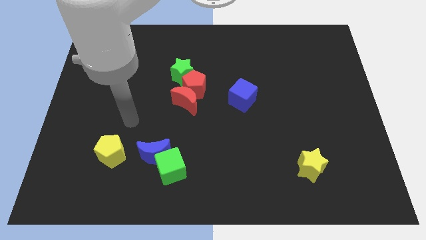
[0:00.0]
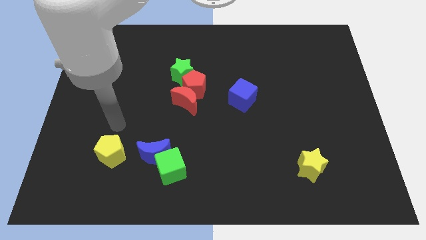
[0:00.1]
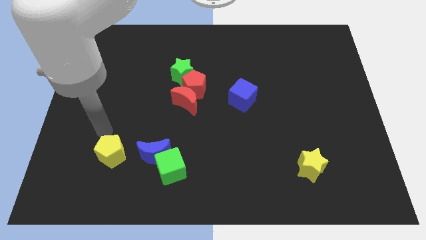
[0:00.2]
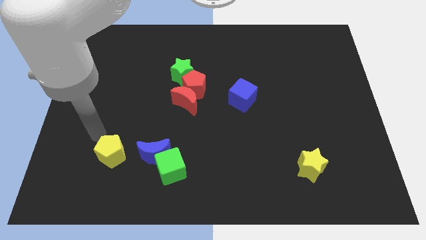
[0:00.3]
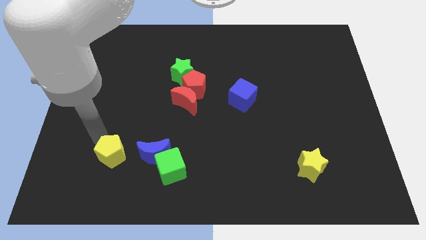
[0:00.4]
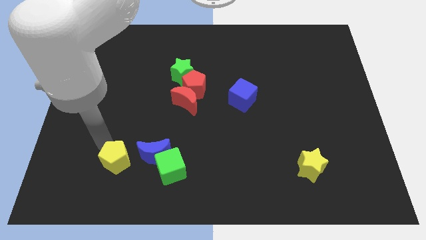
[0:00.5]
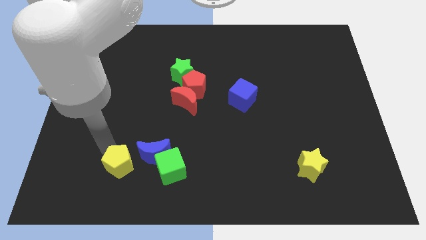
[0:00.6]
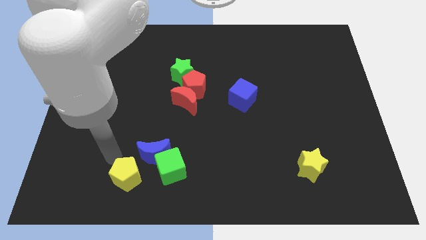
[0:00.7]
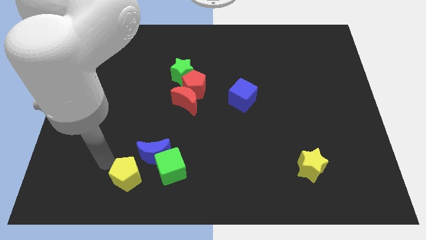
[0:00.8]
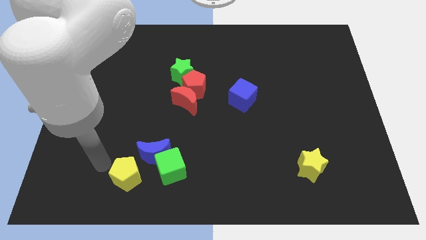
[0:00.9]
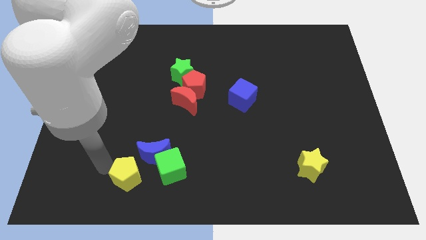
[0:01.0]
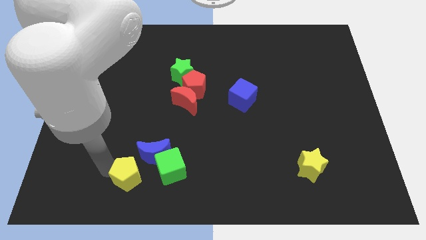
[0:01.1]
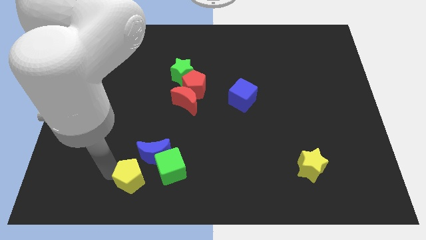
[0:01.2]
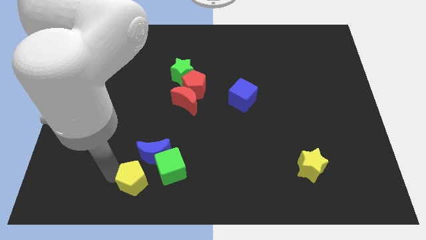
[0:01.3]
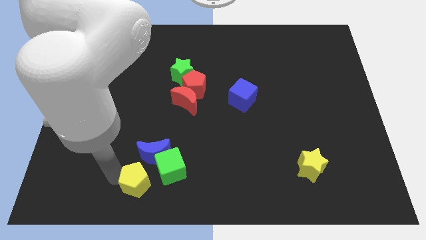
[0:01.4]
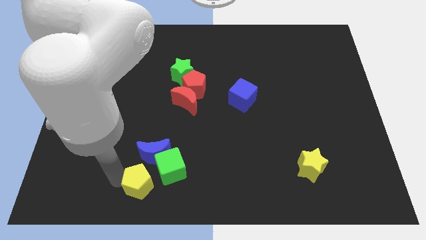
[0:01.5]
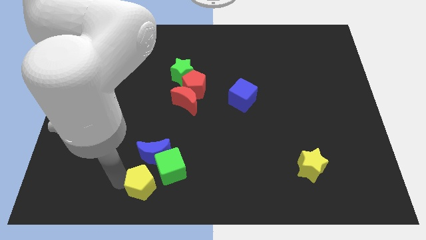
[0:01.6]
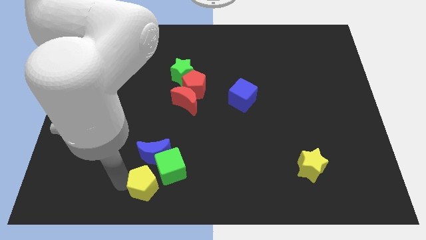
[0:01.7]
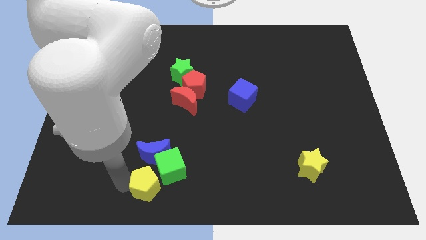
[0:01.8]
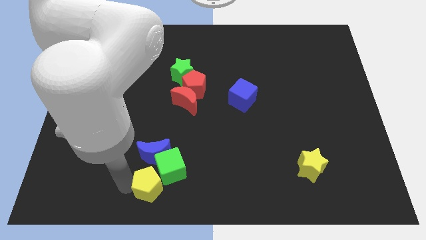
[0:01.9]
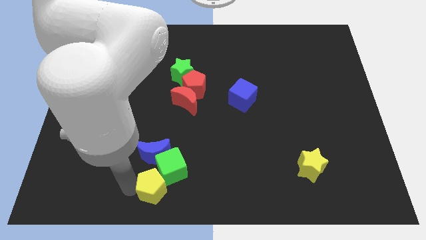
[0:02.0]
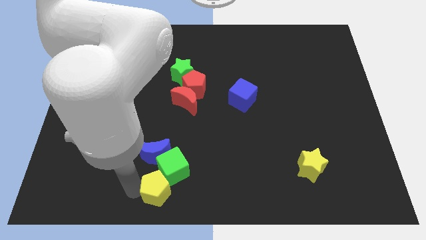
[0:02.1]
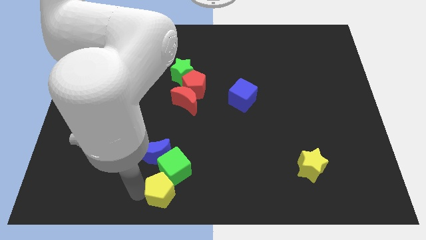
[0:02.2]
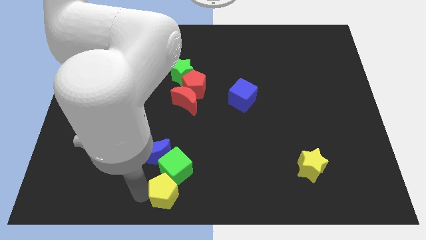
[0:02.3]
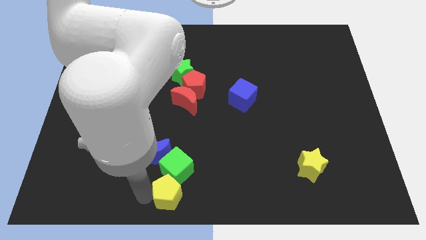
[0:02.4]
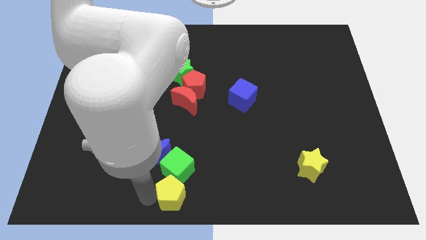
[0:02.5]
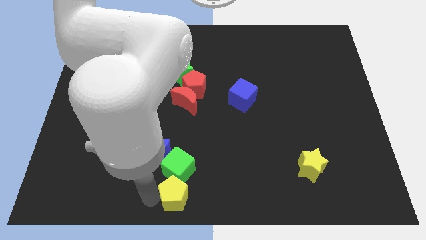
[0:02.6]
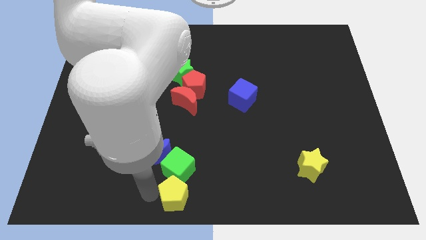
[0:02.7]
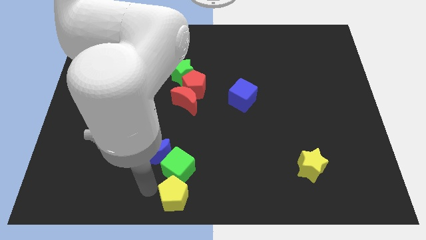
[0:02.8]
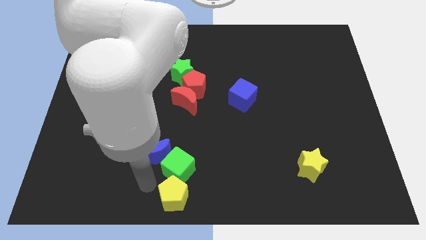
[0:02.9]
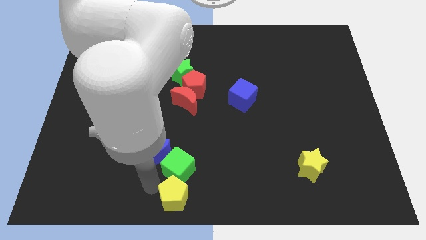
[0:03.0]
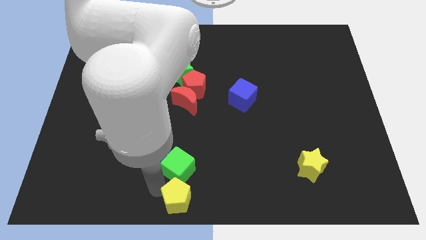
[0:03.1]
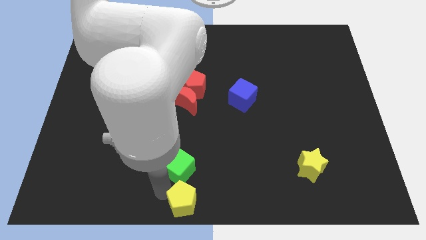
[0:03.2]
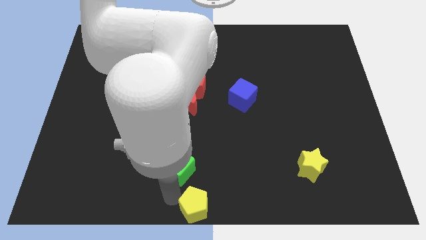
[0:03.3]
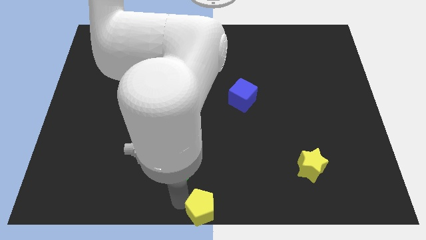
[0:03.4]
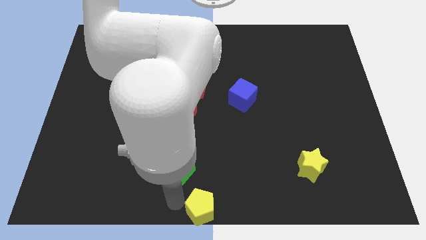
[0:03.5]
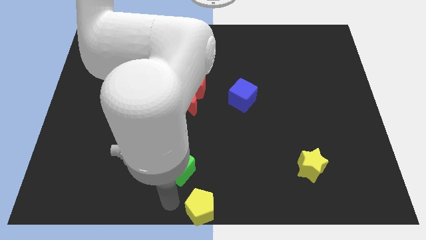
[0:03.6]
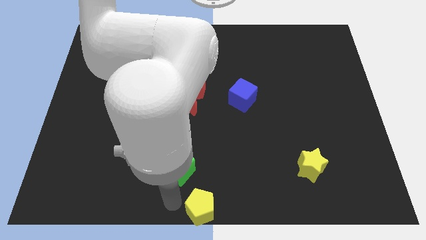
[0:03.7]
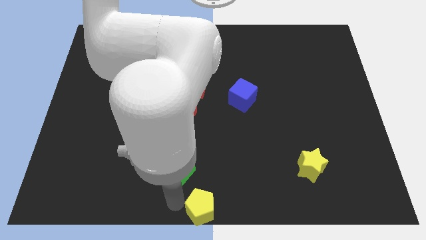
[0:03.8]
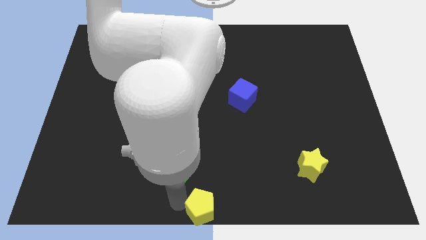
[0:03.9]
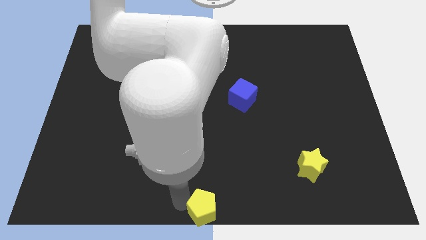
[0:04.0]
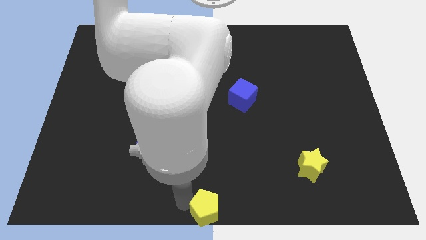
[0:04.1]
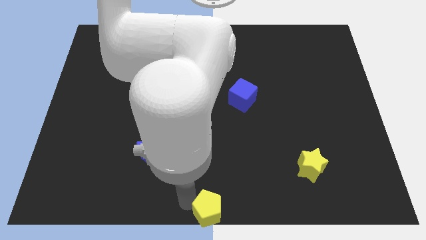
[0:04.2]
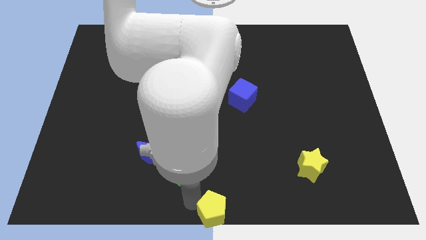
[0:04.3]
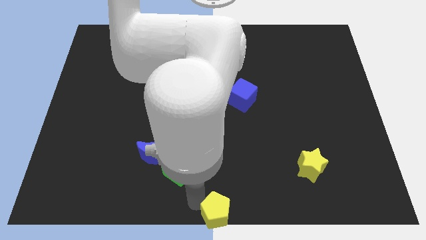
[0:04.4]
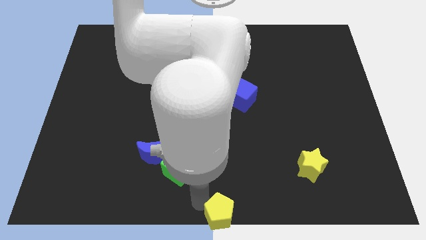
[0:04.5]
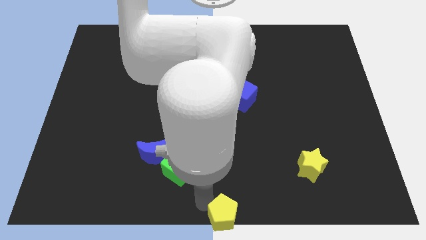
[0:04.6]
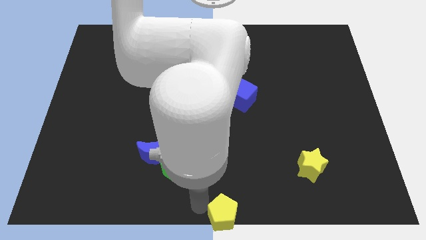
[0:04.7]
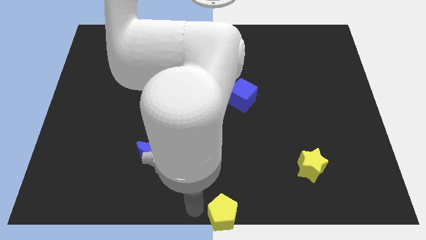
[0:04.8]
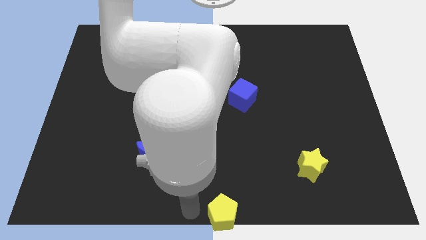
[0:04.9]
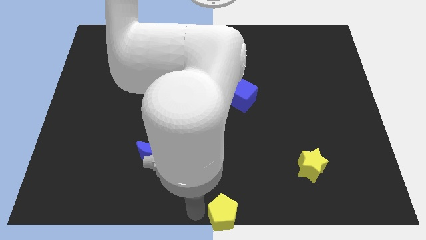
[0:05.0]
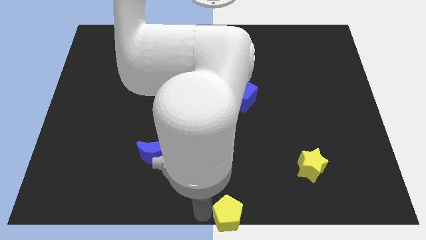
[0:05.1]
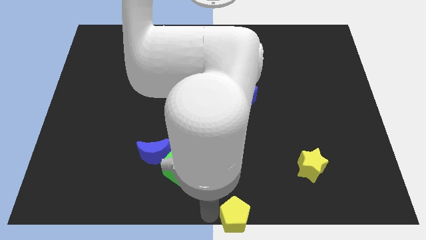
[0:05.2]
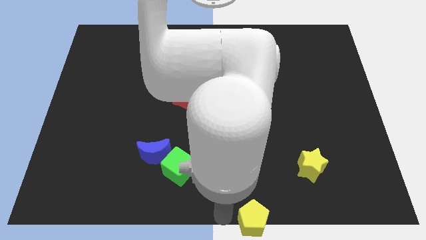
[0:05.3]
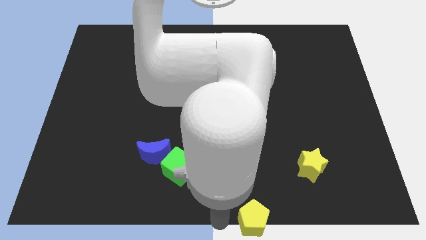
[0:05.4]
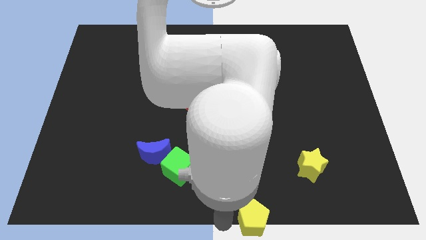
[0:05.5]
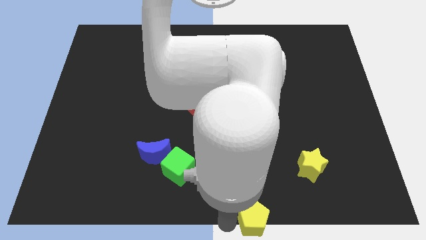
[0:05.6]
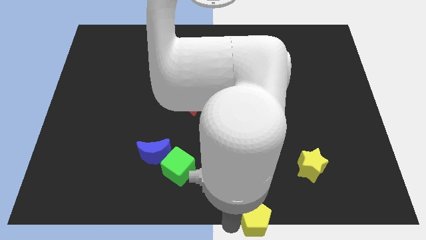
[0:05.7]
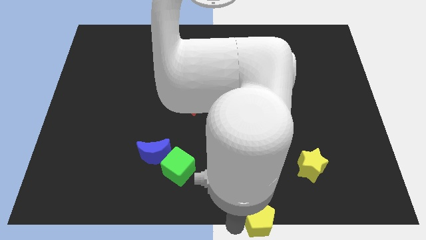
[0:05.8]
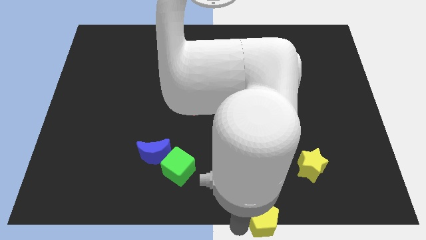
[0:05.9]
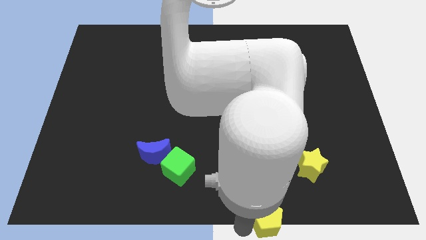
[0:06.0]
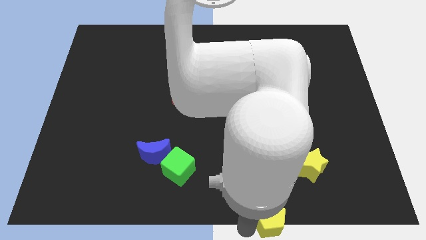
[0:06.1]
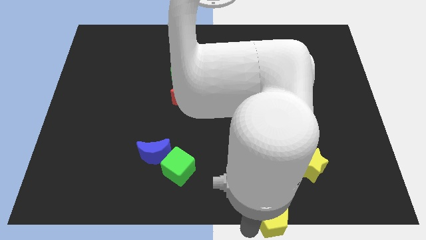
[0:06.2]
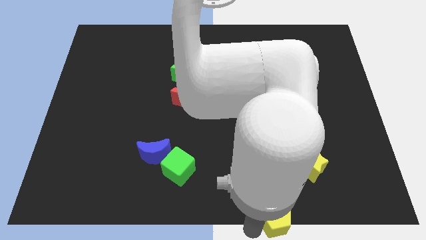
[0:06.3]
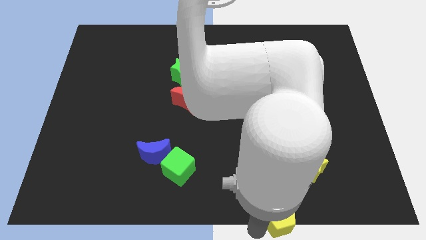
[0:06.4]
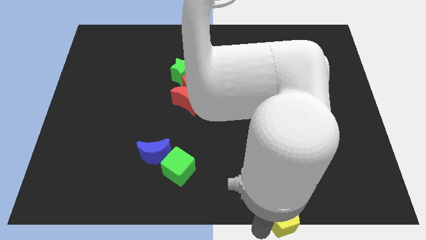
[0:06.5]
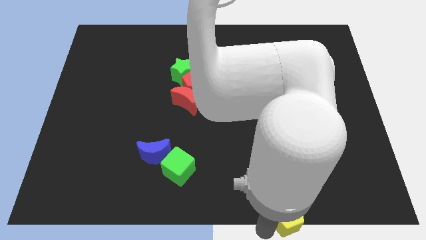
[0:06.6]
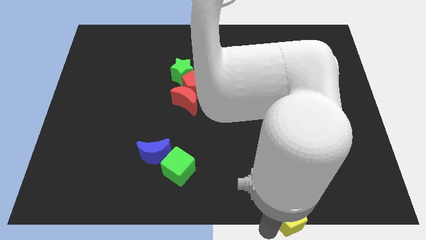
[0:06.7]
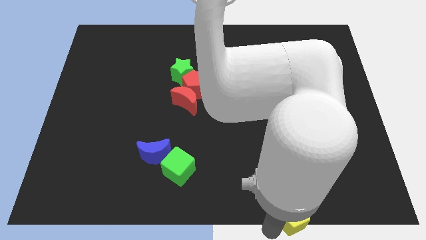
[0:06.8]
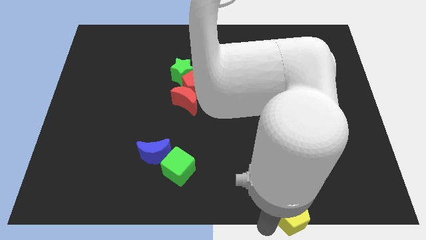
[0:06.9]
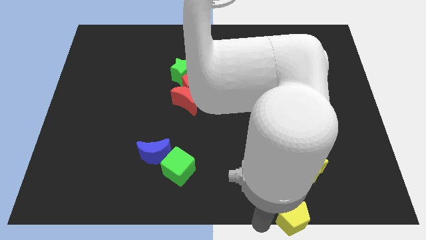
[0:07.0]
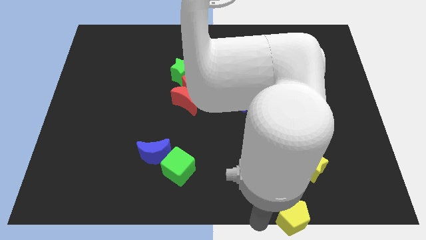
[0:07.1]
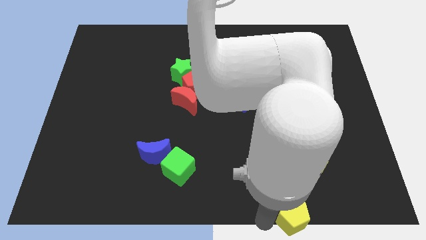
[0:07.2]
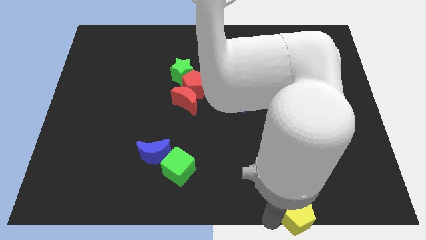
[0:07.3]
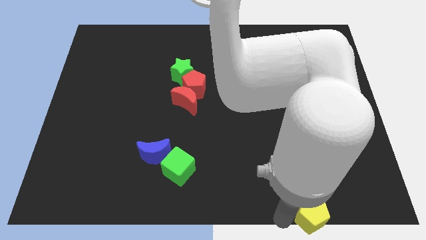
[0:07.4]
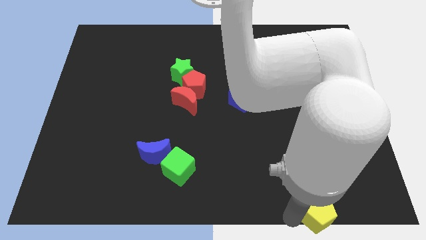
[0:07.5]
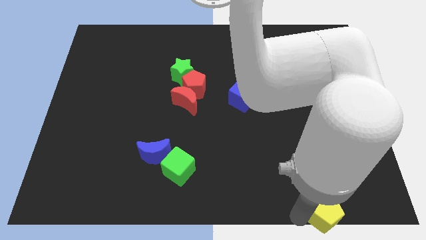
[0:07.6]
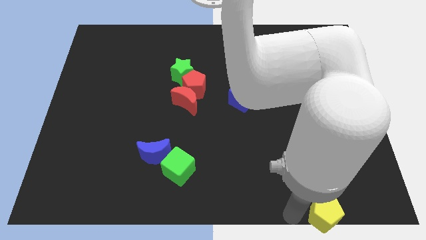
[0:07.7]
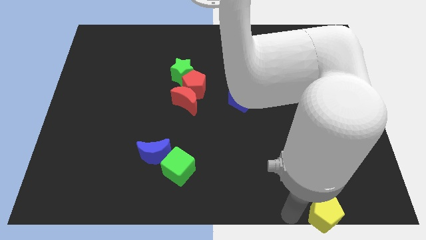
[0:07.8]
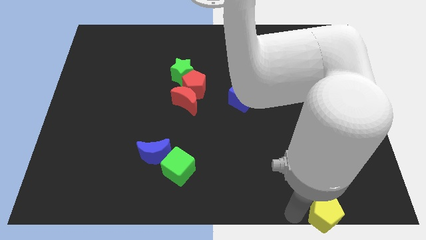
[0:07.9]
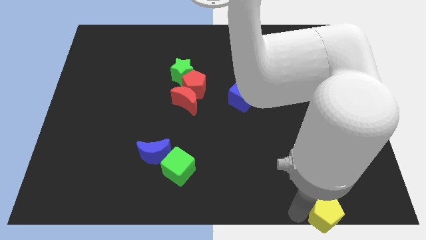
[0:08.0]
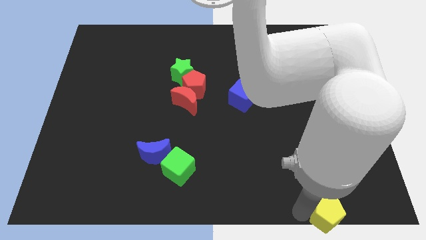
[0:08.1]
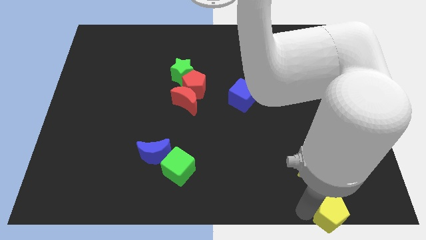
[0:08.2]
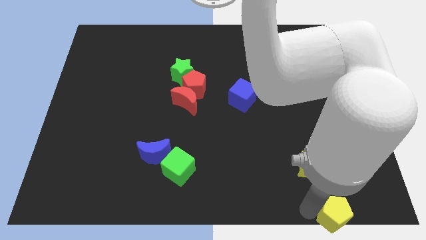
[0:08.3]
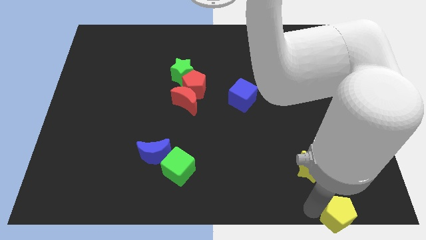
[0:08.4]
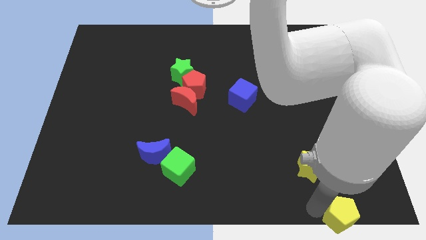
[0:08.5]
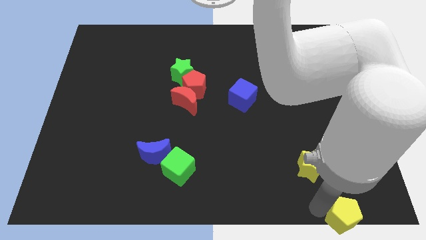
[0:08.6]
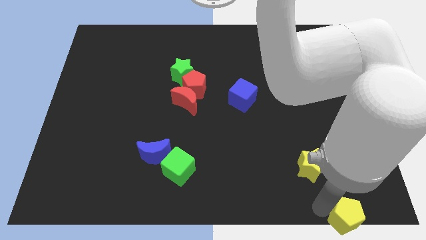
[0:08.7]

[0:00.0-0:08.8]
put the yellow pentagon to the bottom right corner
